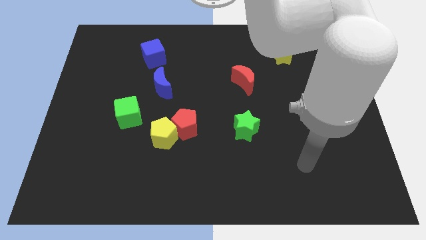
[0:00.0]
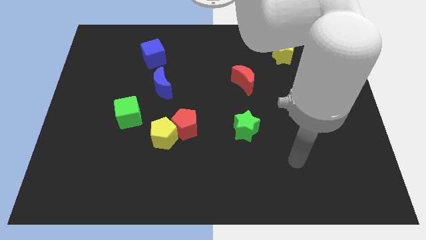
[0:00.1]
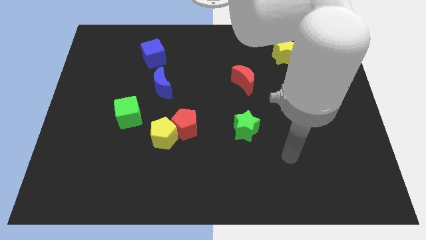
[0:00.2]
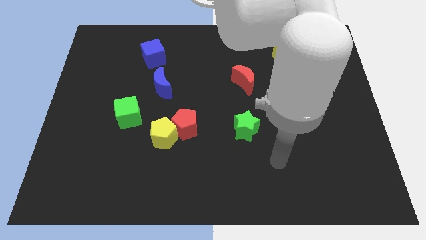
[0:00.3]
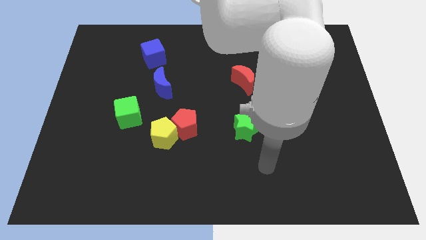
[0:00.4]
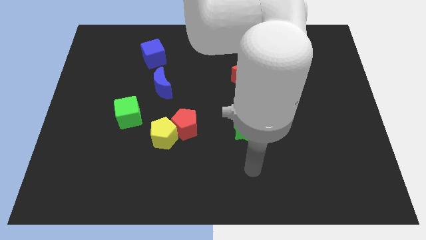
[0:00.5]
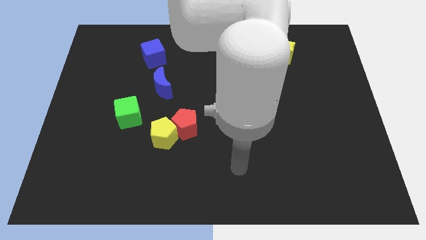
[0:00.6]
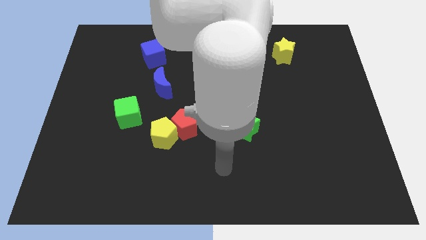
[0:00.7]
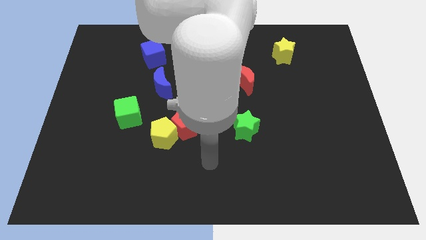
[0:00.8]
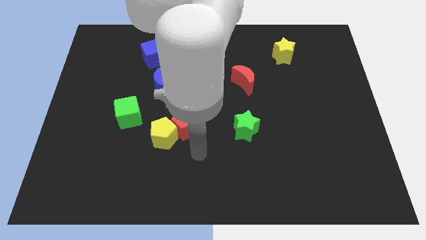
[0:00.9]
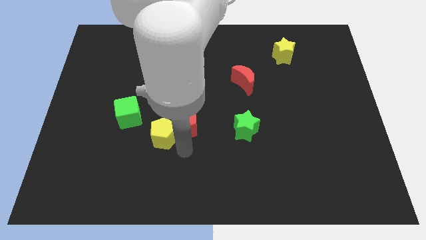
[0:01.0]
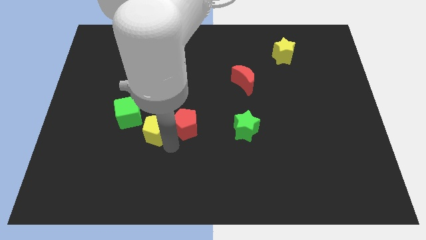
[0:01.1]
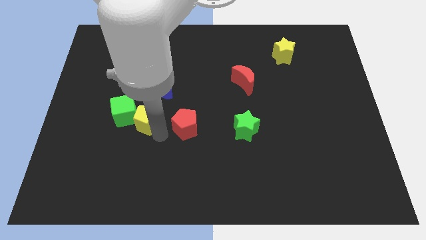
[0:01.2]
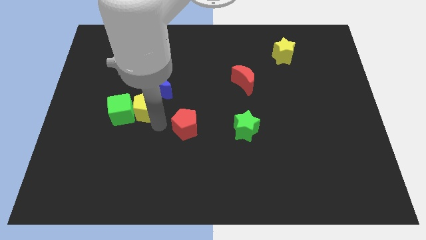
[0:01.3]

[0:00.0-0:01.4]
separate the red pentagon from the yellow pentagon

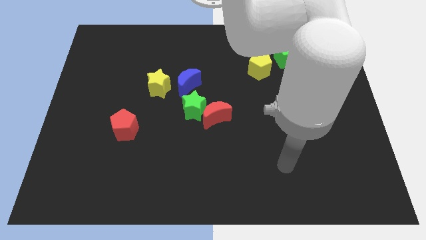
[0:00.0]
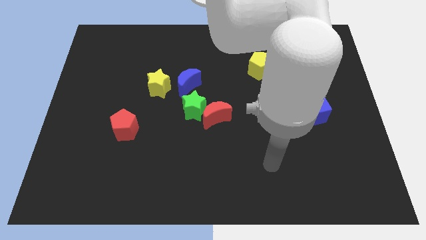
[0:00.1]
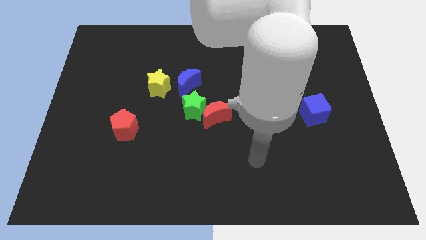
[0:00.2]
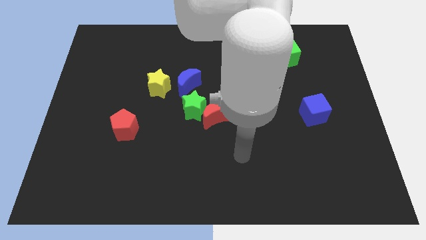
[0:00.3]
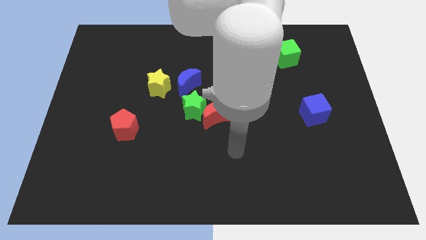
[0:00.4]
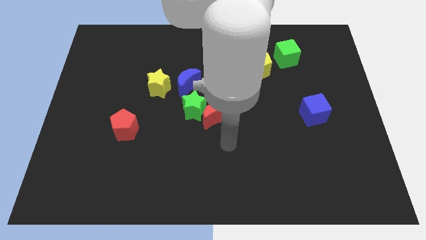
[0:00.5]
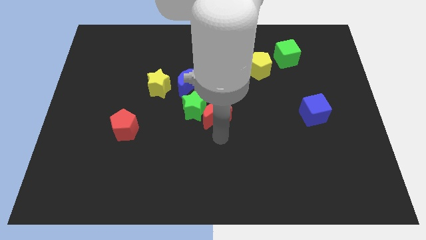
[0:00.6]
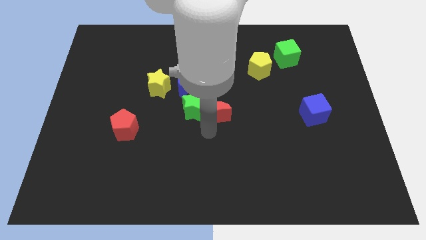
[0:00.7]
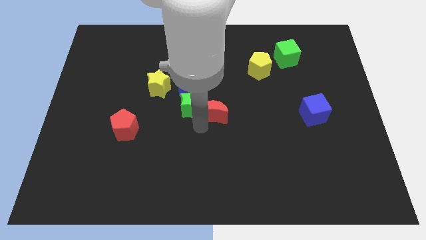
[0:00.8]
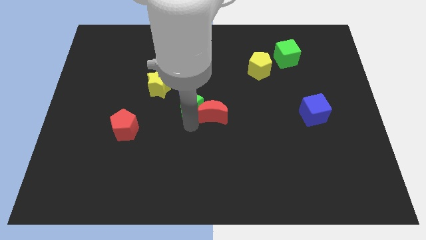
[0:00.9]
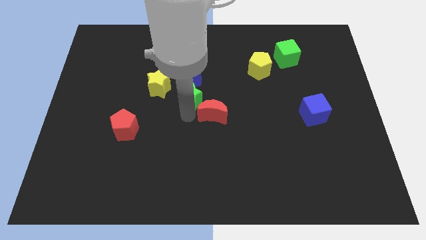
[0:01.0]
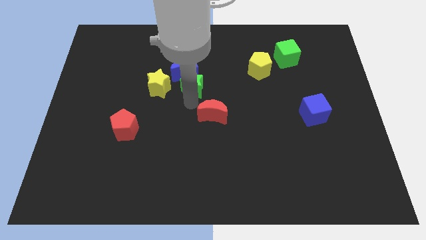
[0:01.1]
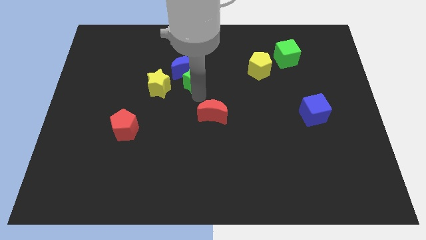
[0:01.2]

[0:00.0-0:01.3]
pull the red moon apart from the green star

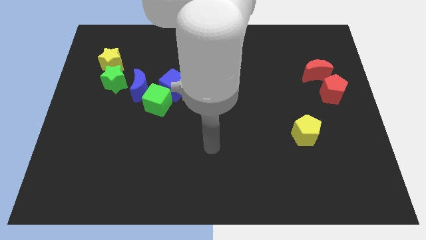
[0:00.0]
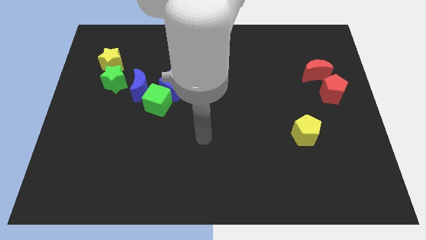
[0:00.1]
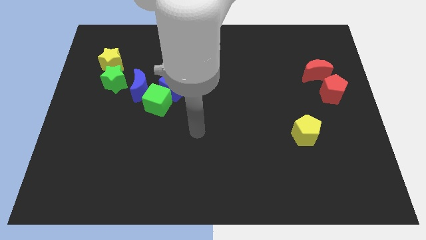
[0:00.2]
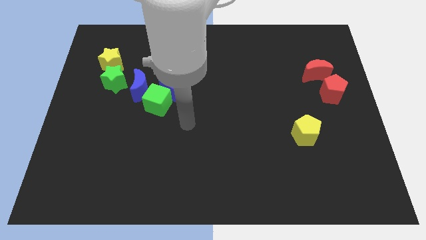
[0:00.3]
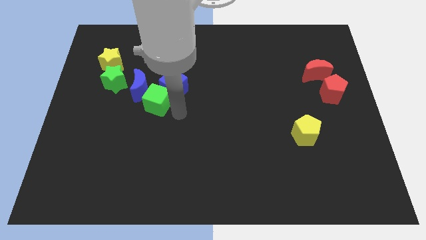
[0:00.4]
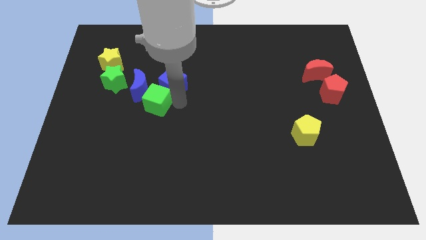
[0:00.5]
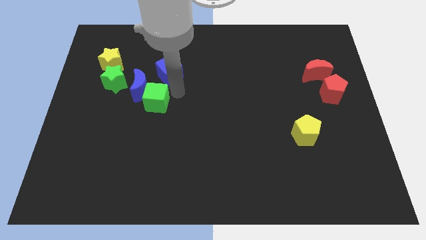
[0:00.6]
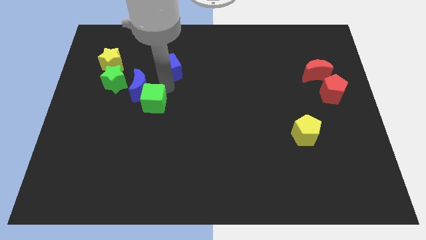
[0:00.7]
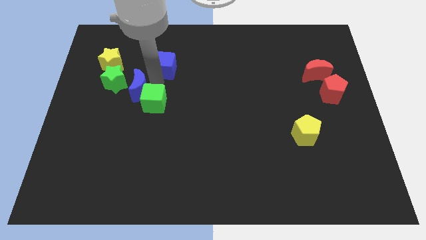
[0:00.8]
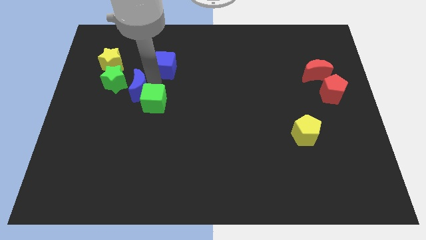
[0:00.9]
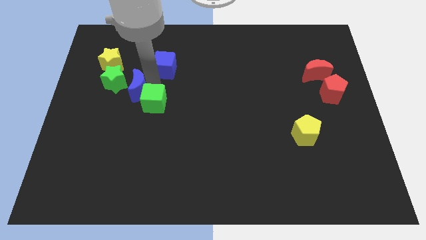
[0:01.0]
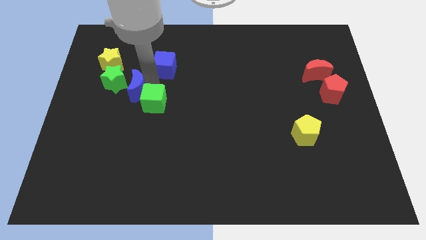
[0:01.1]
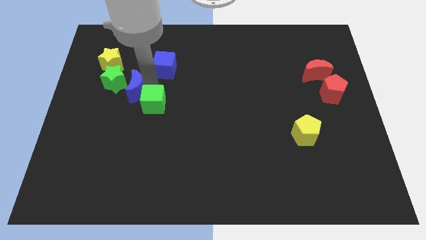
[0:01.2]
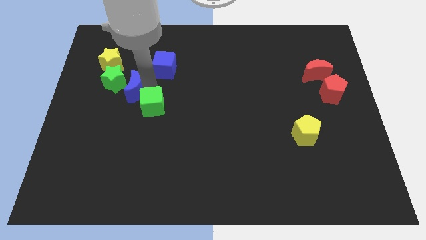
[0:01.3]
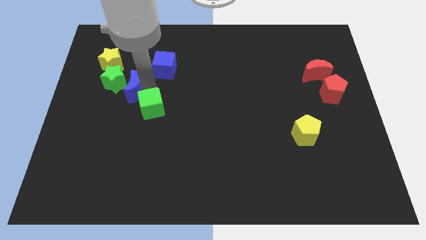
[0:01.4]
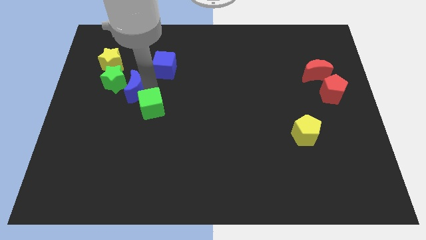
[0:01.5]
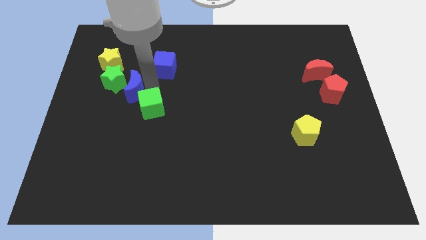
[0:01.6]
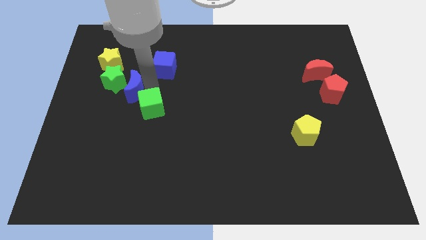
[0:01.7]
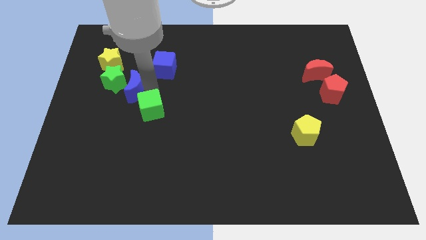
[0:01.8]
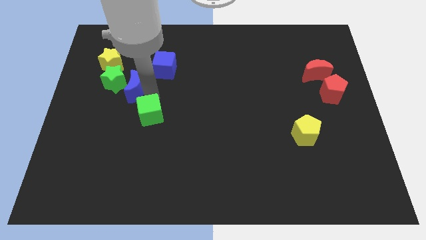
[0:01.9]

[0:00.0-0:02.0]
separate the green cube from the blue cube and blue moon

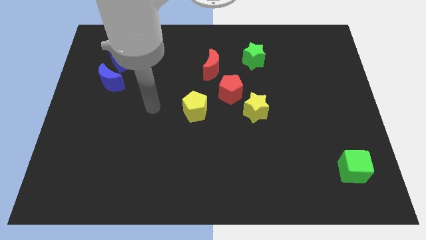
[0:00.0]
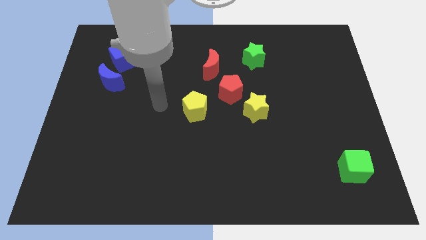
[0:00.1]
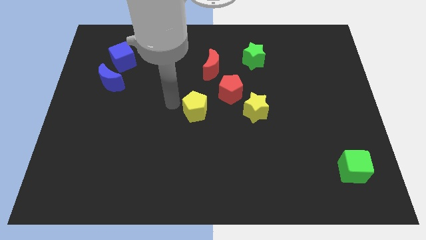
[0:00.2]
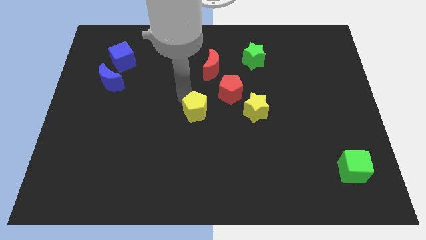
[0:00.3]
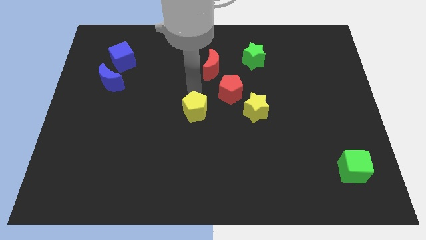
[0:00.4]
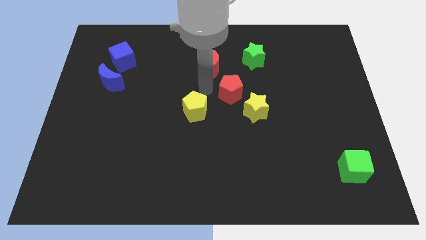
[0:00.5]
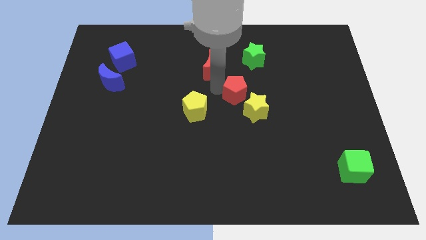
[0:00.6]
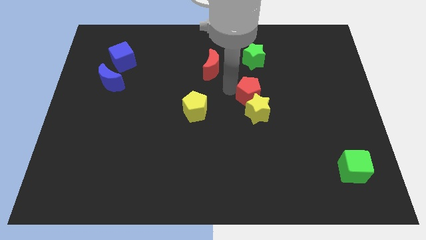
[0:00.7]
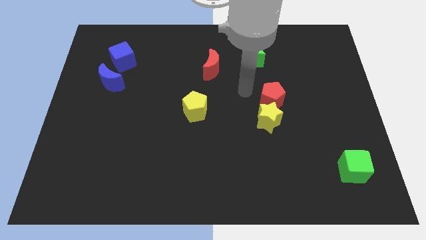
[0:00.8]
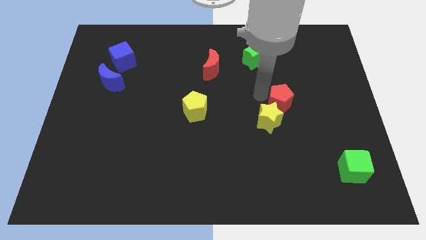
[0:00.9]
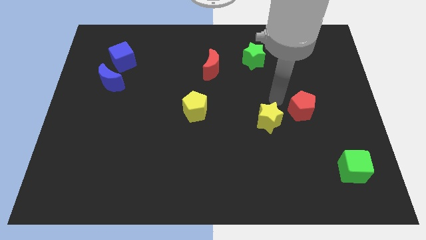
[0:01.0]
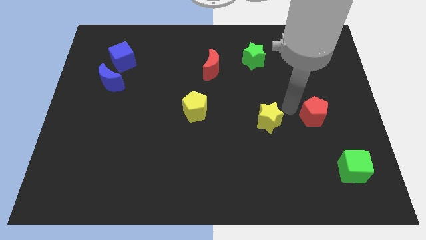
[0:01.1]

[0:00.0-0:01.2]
pull the yellow star apart from the red pentagon

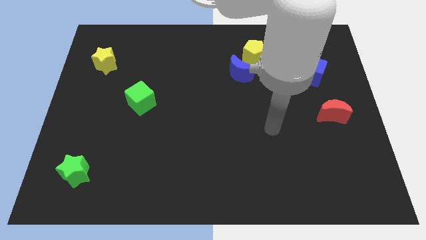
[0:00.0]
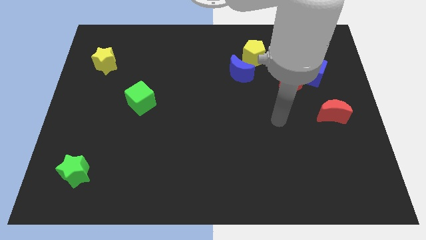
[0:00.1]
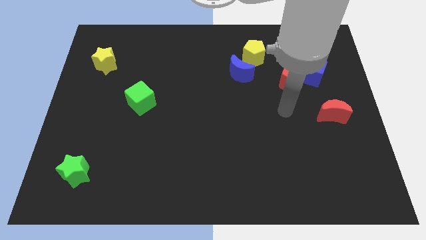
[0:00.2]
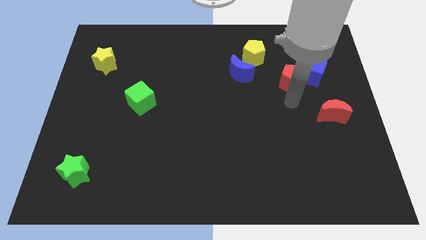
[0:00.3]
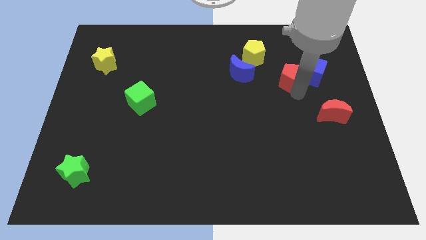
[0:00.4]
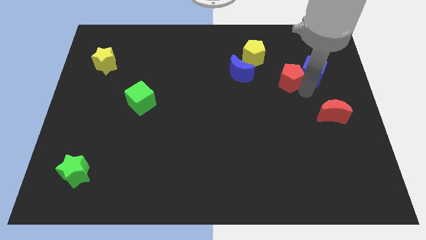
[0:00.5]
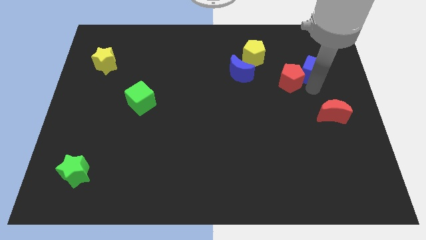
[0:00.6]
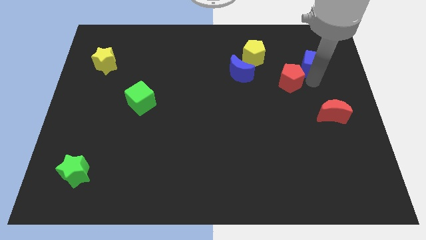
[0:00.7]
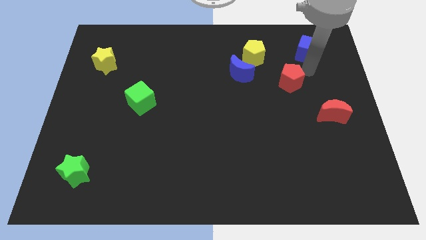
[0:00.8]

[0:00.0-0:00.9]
separate the red pentagon from the blue cube

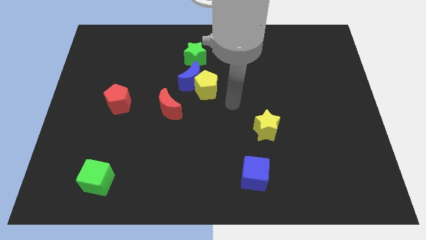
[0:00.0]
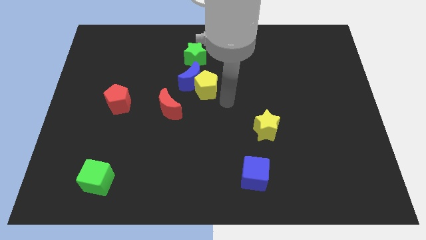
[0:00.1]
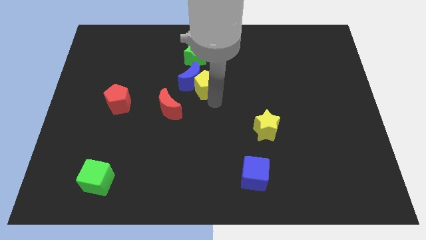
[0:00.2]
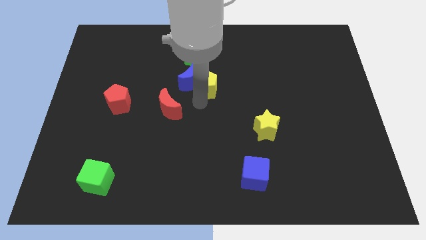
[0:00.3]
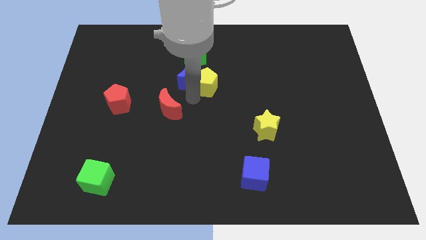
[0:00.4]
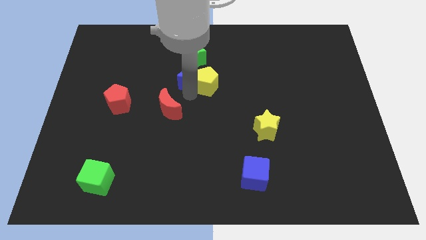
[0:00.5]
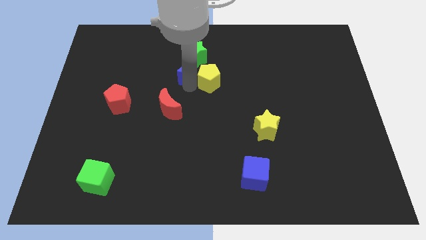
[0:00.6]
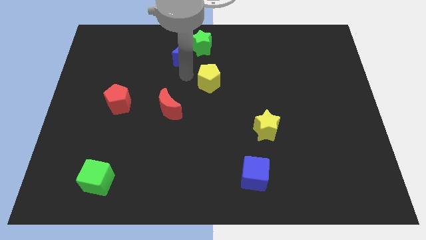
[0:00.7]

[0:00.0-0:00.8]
move the yellow pentagon away from the blue moon

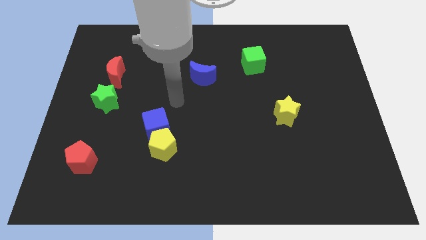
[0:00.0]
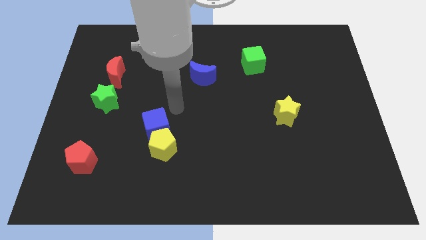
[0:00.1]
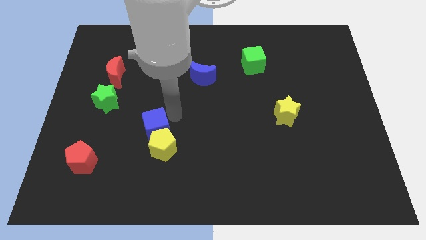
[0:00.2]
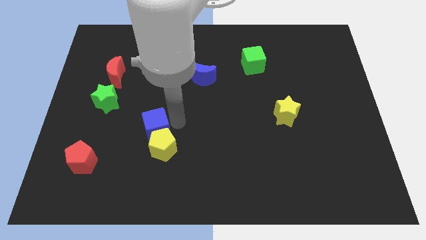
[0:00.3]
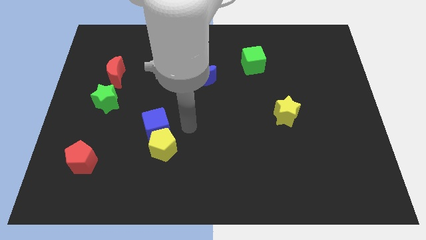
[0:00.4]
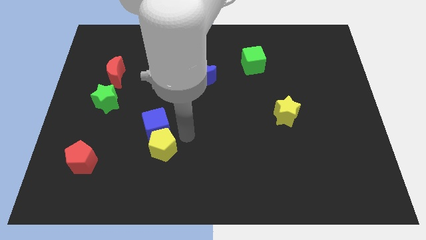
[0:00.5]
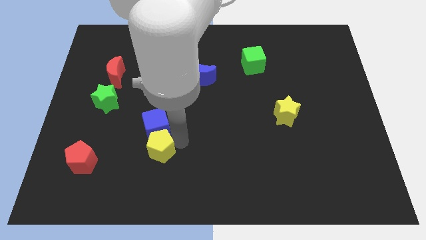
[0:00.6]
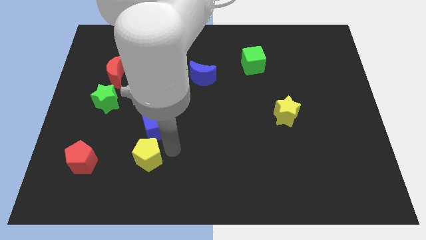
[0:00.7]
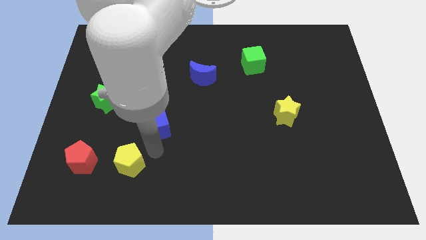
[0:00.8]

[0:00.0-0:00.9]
pull the blue cube apart from the yellow pentagon

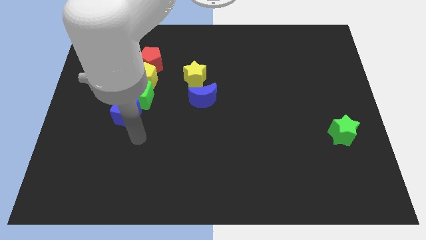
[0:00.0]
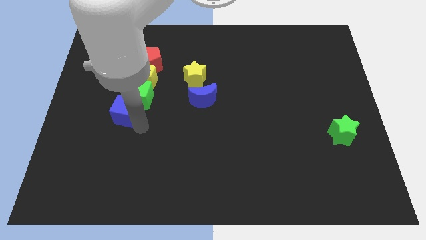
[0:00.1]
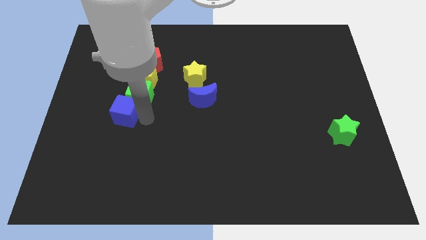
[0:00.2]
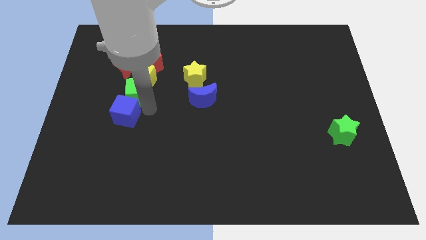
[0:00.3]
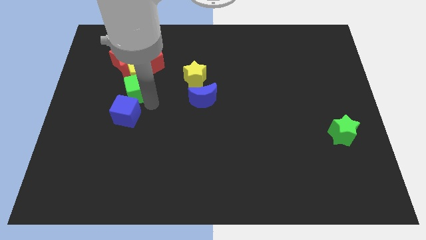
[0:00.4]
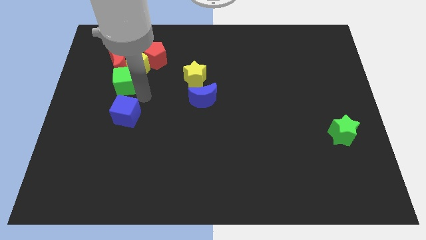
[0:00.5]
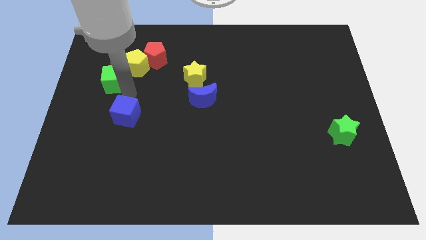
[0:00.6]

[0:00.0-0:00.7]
move the blue cube away from the green cube
